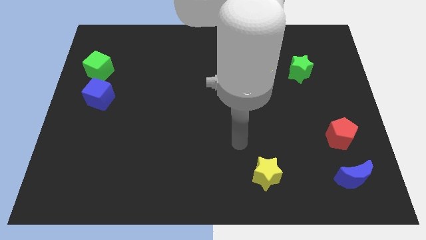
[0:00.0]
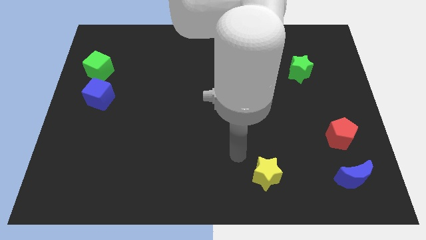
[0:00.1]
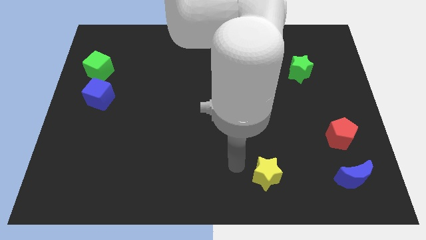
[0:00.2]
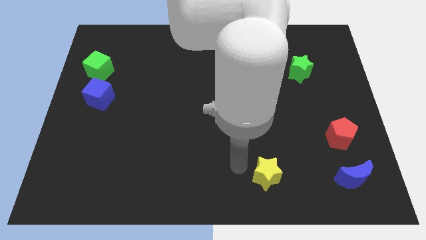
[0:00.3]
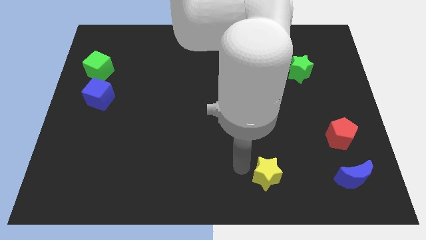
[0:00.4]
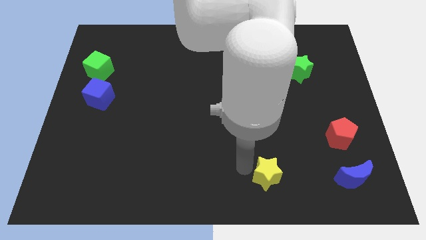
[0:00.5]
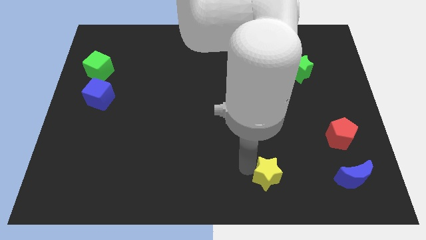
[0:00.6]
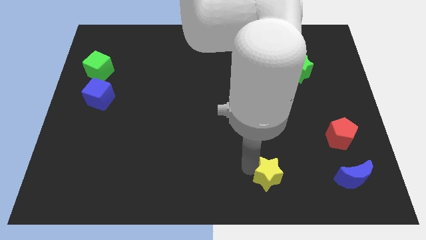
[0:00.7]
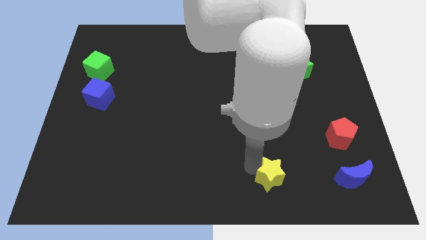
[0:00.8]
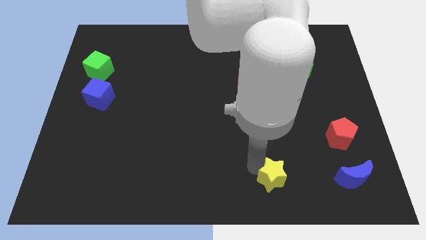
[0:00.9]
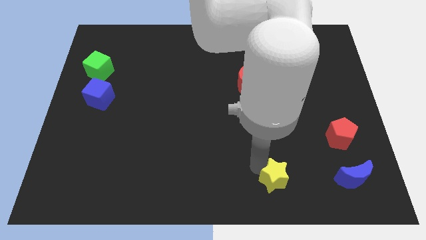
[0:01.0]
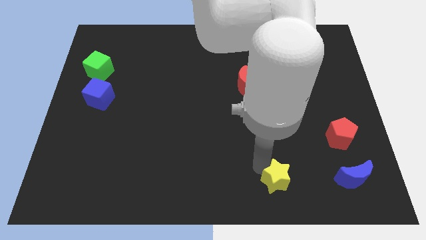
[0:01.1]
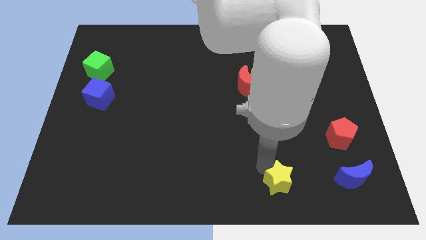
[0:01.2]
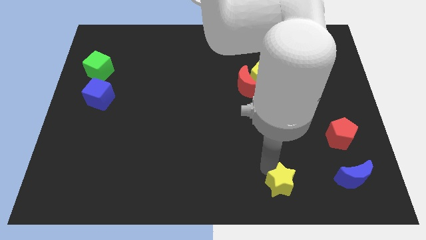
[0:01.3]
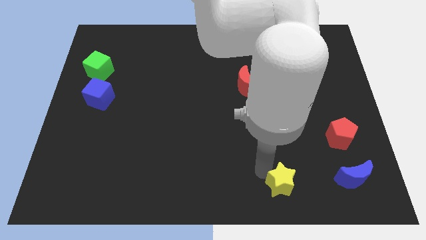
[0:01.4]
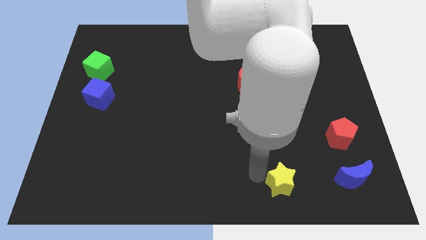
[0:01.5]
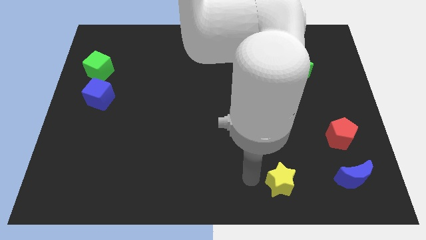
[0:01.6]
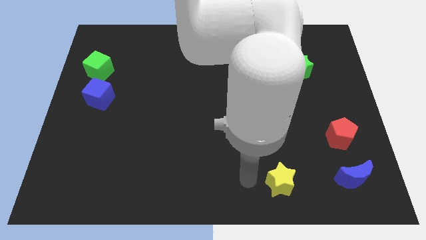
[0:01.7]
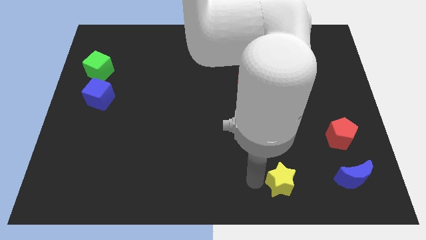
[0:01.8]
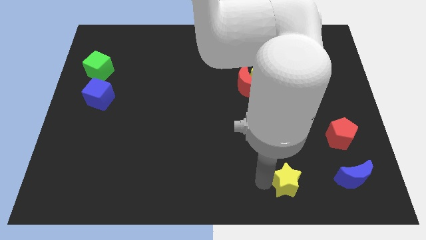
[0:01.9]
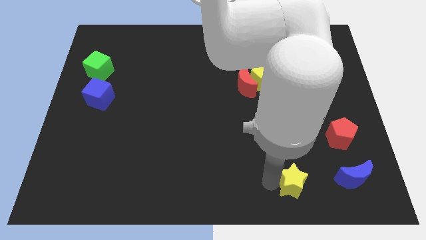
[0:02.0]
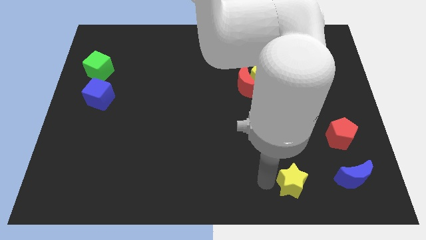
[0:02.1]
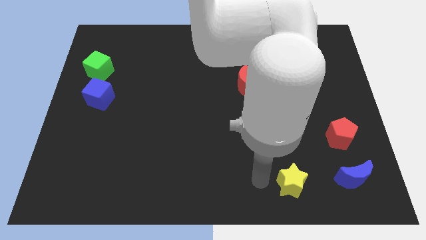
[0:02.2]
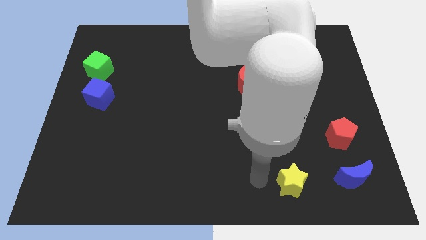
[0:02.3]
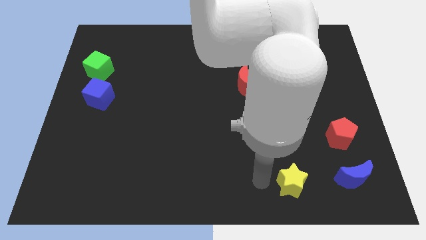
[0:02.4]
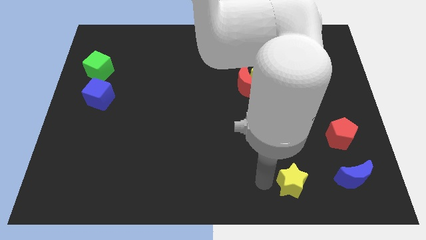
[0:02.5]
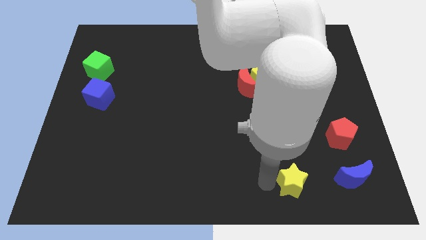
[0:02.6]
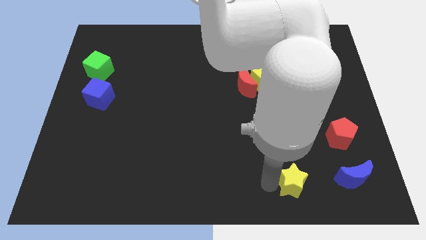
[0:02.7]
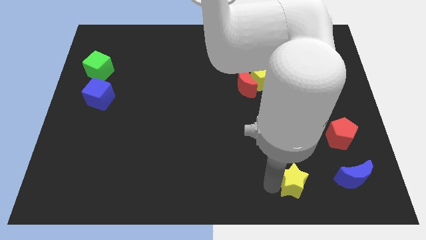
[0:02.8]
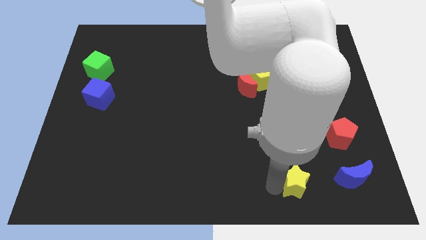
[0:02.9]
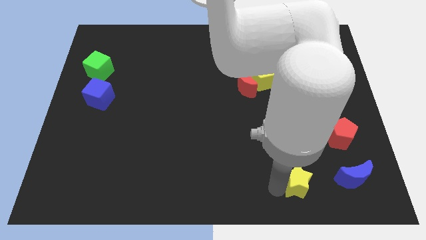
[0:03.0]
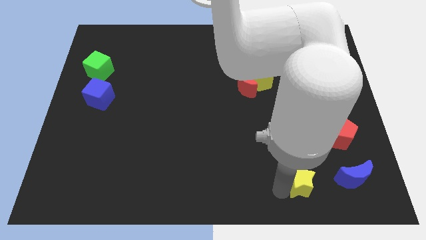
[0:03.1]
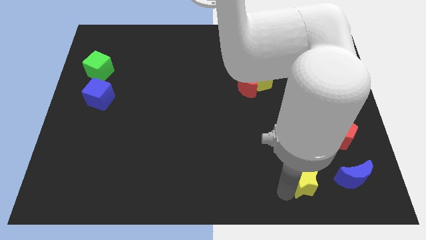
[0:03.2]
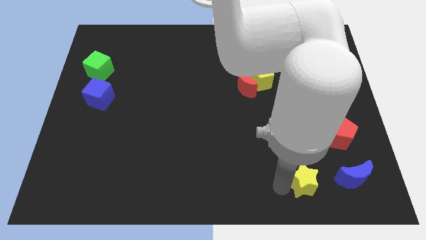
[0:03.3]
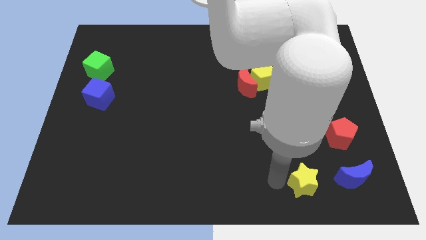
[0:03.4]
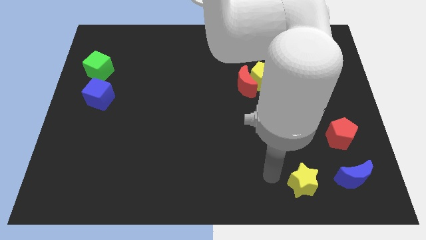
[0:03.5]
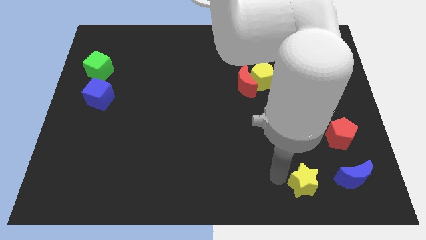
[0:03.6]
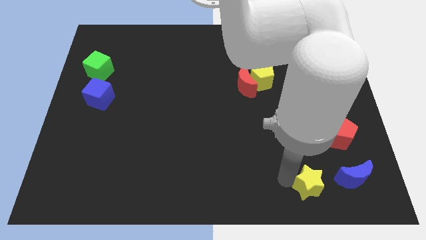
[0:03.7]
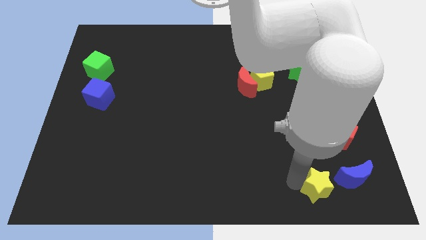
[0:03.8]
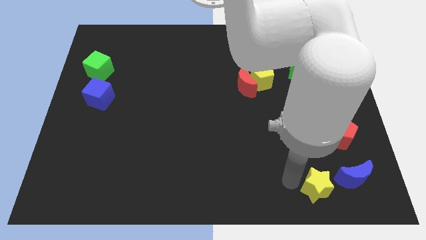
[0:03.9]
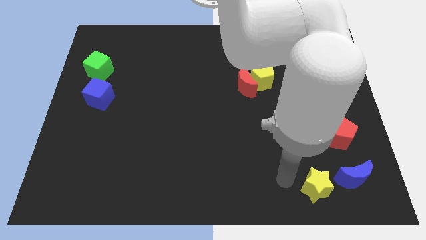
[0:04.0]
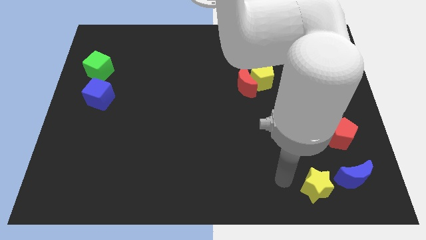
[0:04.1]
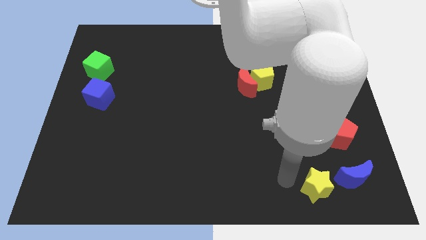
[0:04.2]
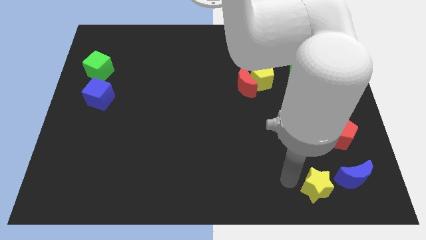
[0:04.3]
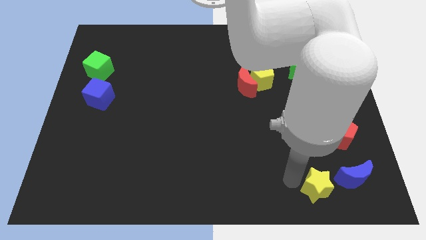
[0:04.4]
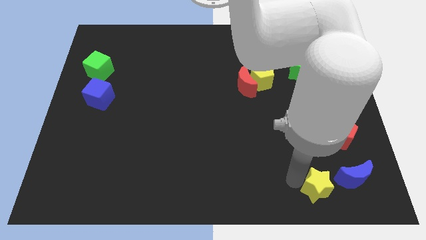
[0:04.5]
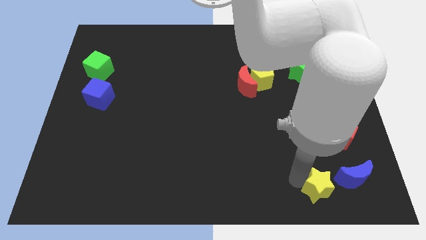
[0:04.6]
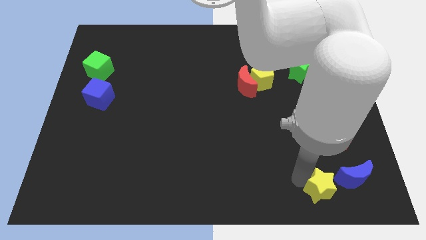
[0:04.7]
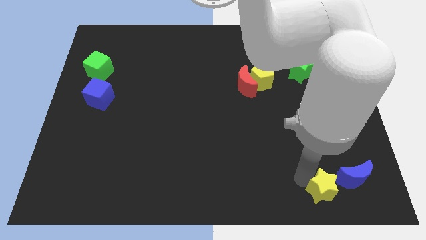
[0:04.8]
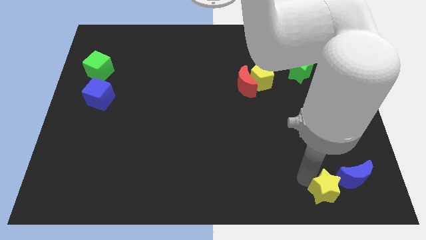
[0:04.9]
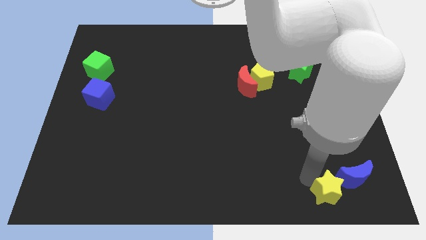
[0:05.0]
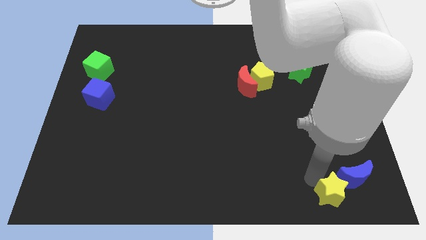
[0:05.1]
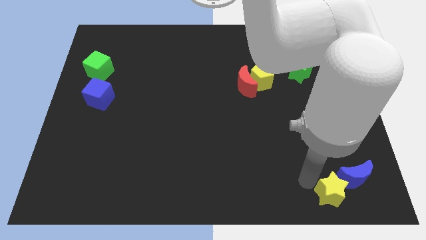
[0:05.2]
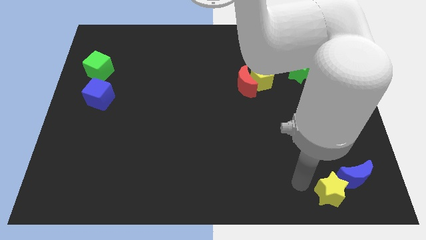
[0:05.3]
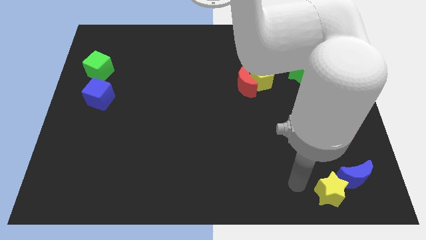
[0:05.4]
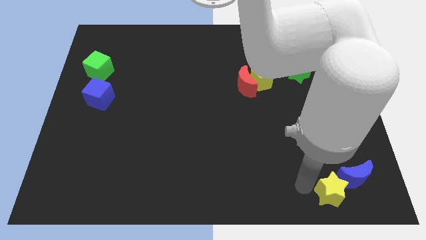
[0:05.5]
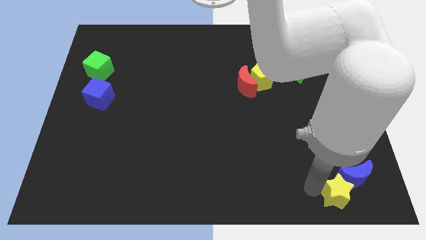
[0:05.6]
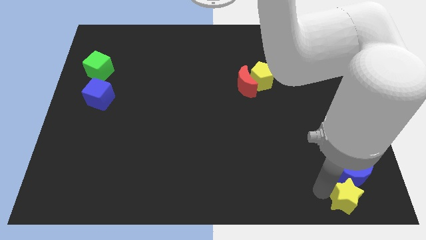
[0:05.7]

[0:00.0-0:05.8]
slide the yellow star to the bottom right of the board

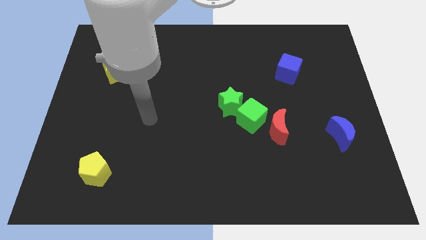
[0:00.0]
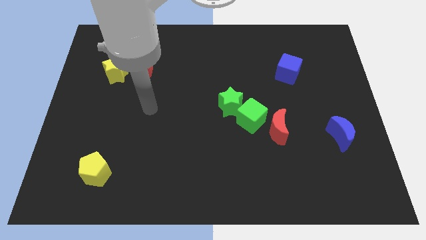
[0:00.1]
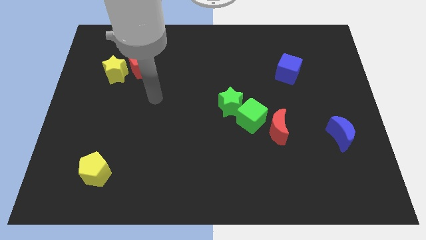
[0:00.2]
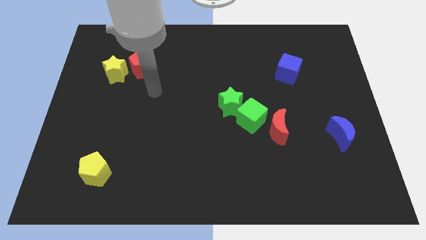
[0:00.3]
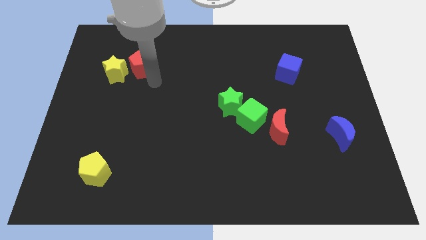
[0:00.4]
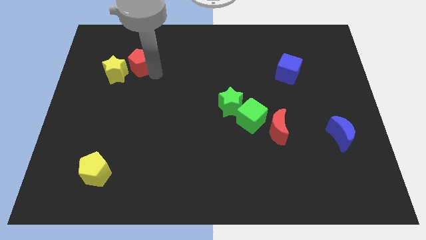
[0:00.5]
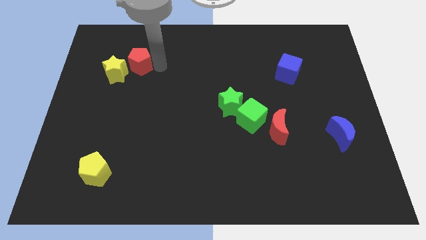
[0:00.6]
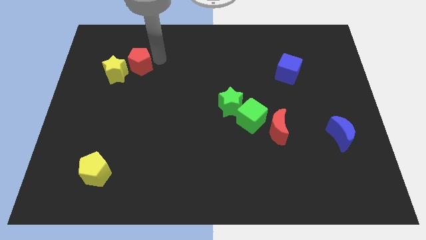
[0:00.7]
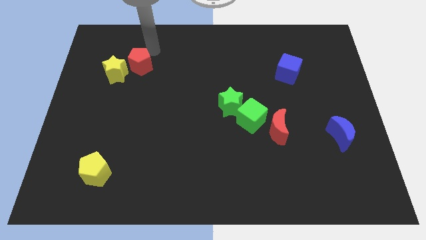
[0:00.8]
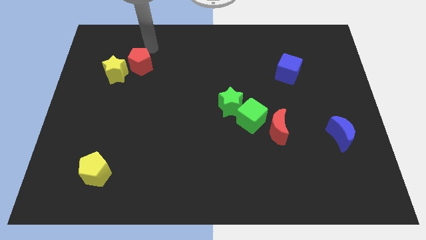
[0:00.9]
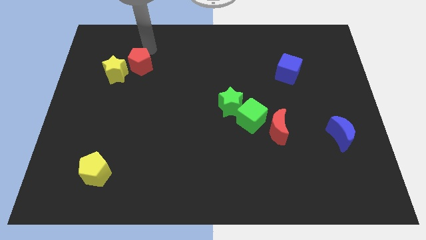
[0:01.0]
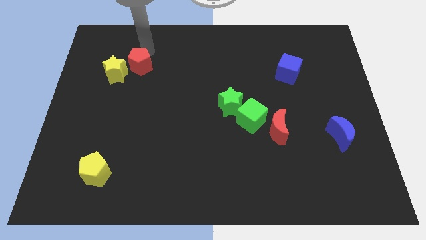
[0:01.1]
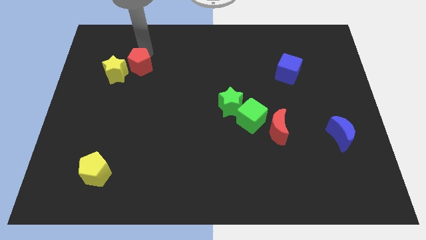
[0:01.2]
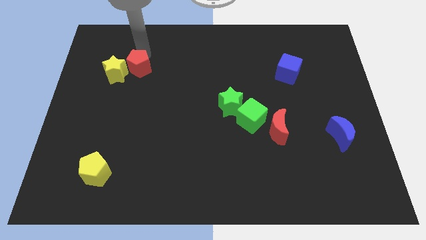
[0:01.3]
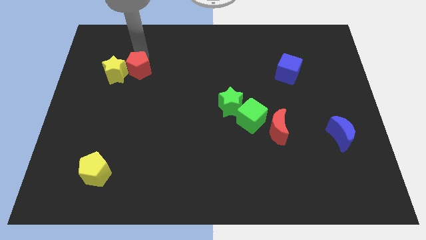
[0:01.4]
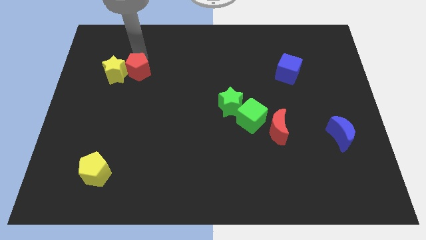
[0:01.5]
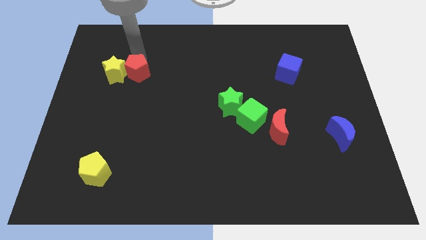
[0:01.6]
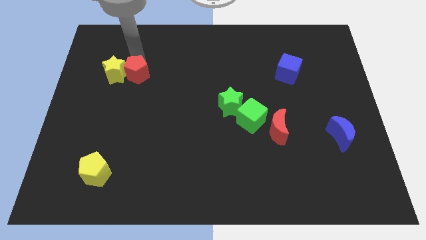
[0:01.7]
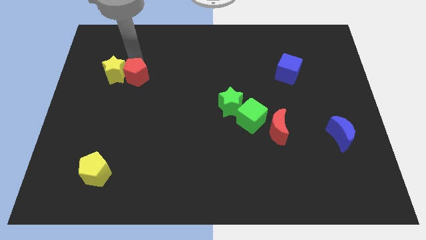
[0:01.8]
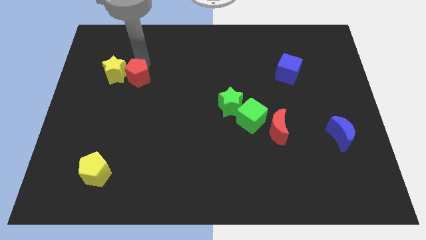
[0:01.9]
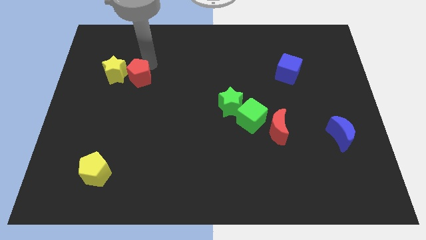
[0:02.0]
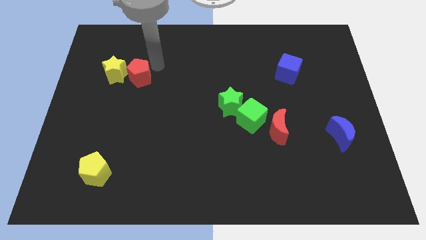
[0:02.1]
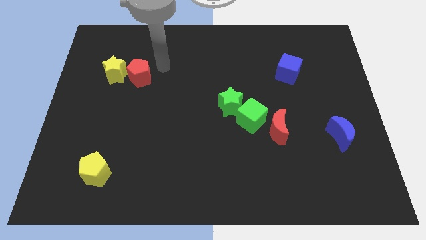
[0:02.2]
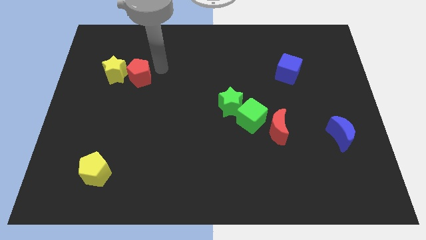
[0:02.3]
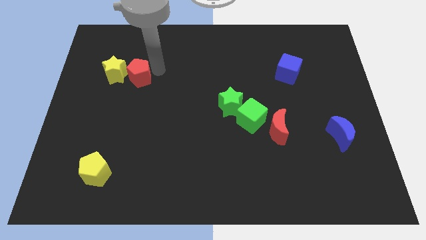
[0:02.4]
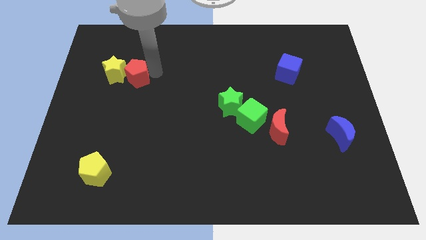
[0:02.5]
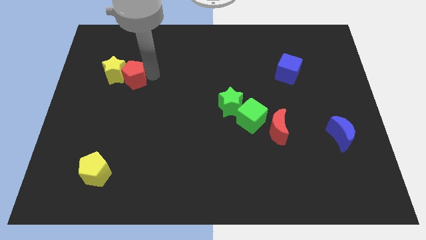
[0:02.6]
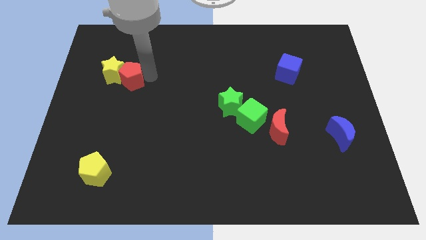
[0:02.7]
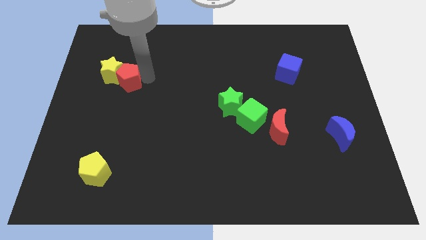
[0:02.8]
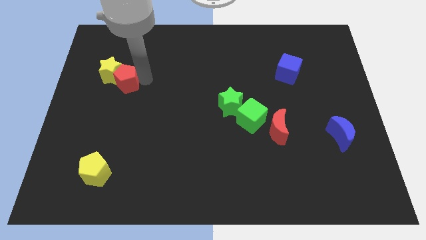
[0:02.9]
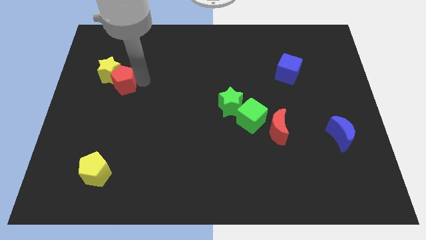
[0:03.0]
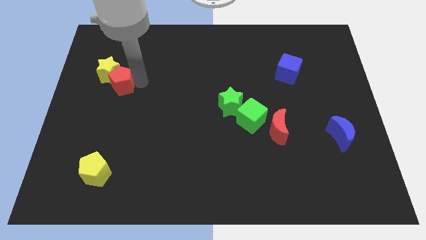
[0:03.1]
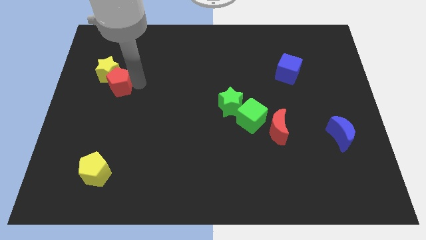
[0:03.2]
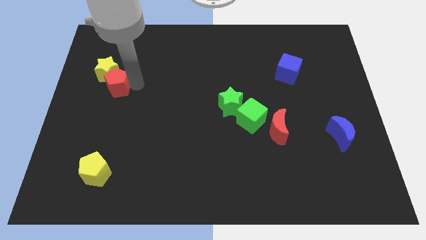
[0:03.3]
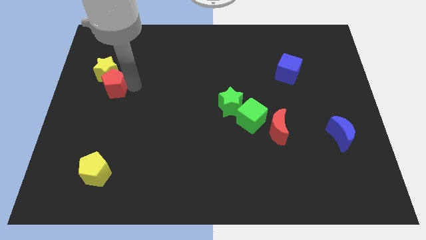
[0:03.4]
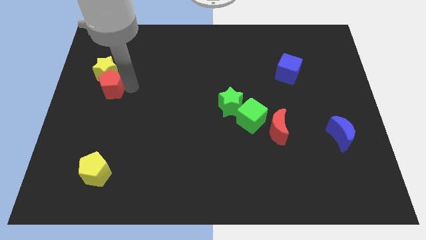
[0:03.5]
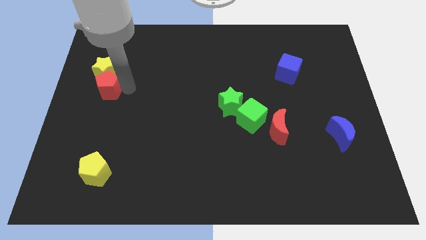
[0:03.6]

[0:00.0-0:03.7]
move the red pentagon to the left side
